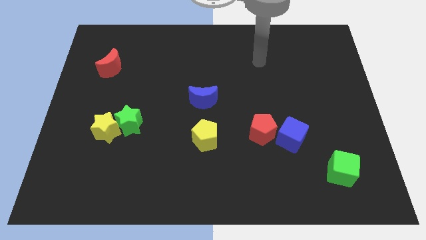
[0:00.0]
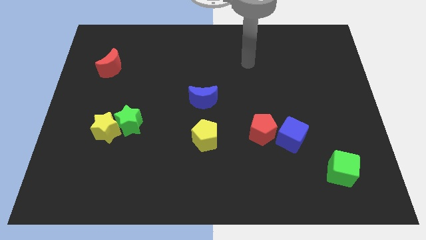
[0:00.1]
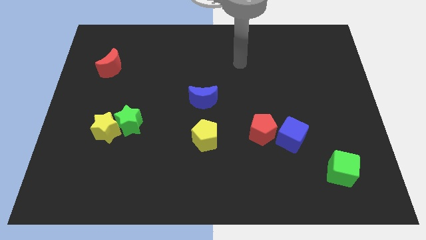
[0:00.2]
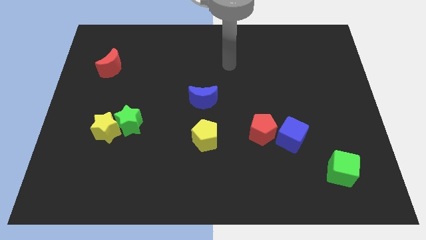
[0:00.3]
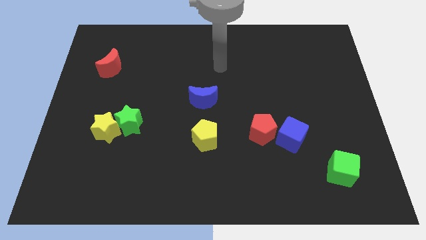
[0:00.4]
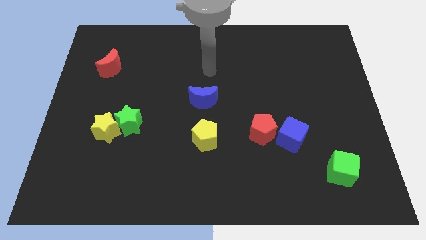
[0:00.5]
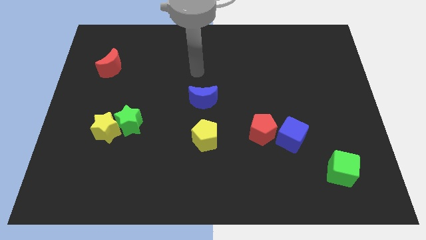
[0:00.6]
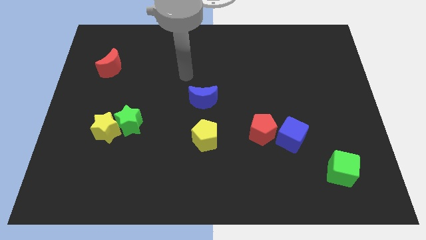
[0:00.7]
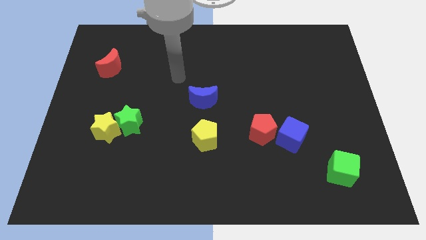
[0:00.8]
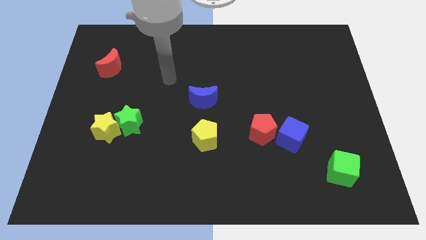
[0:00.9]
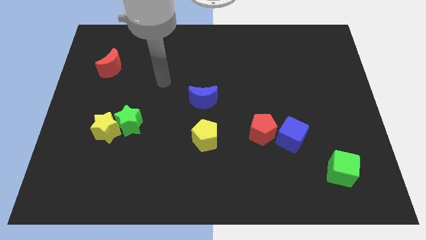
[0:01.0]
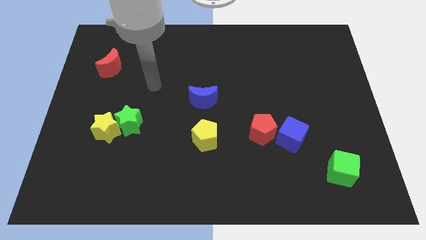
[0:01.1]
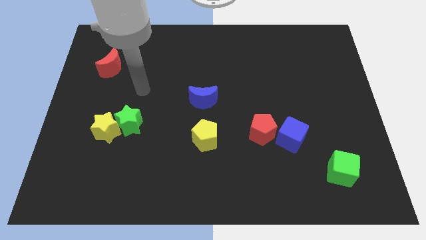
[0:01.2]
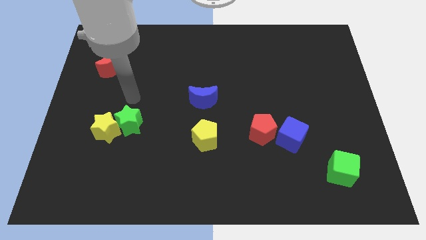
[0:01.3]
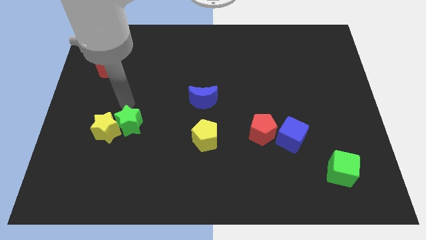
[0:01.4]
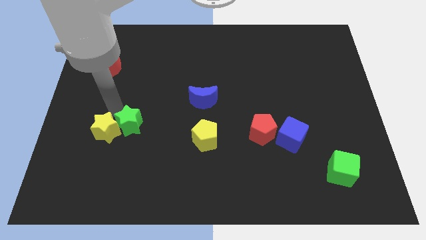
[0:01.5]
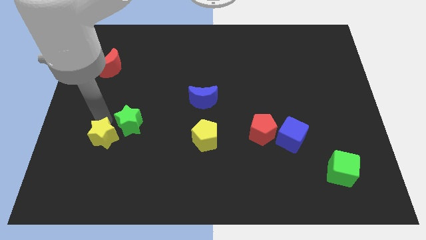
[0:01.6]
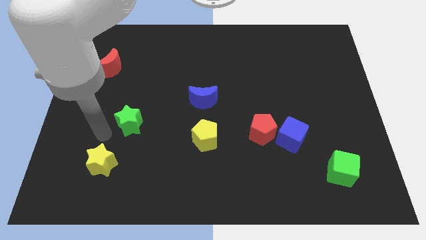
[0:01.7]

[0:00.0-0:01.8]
pull the green star apart from the yellow star

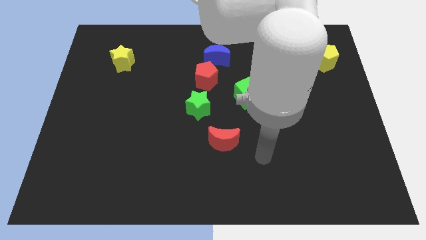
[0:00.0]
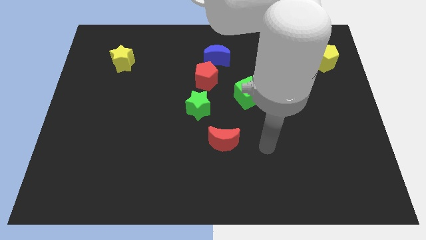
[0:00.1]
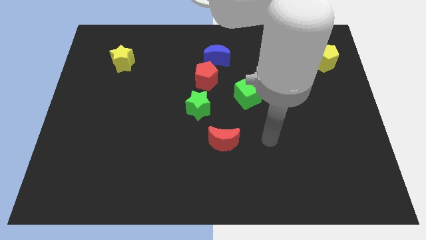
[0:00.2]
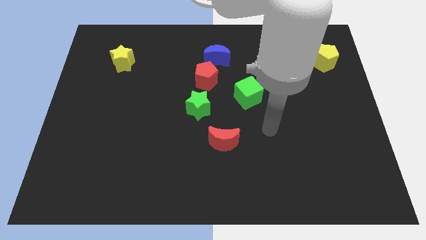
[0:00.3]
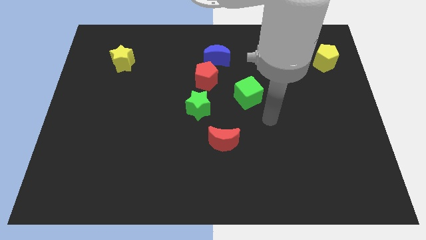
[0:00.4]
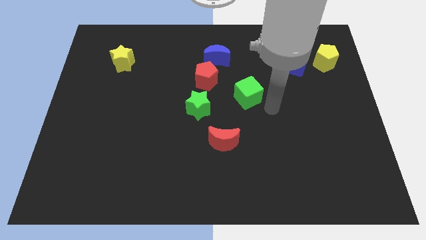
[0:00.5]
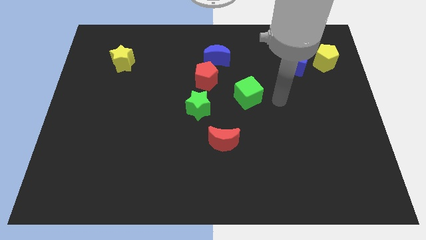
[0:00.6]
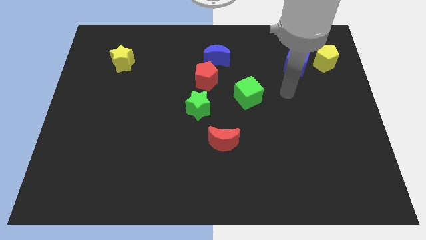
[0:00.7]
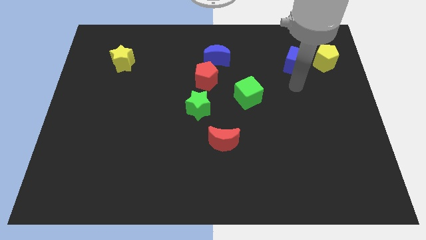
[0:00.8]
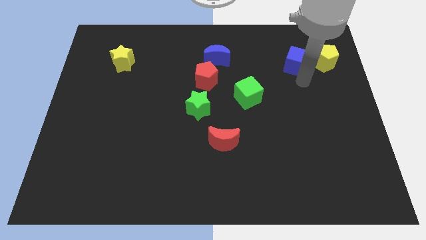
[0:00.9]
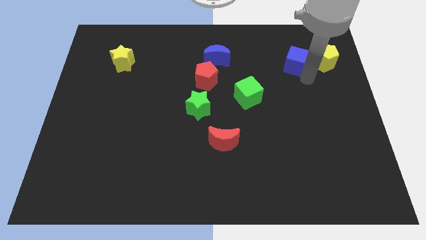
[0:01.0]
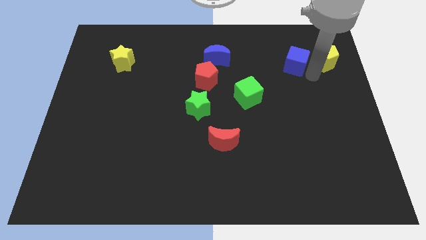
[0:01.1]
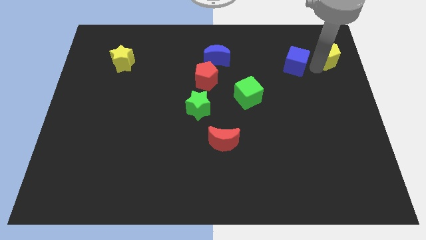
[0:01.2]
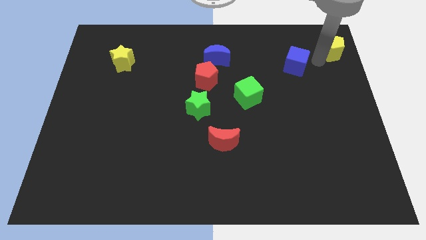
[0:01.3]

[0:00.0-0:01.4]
move the blue cube away from the yellow pentagon

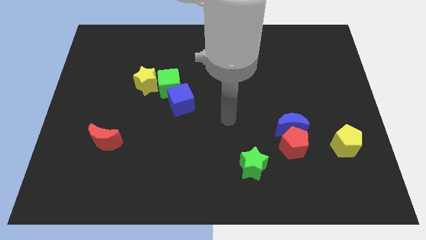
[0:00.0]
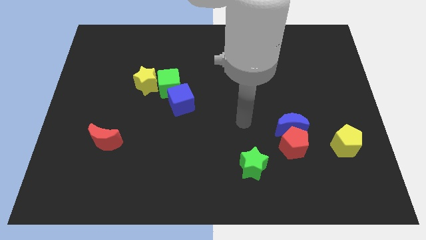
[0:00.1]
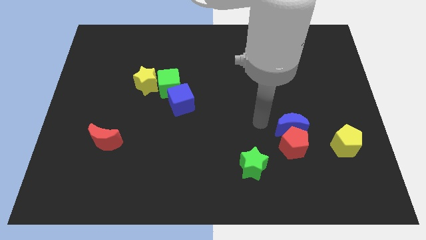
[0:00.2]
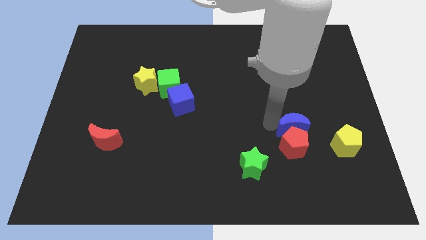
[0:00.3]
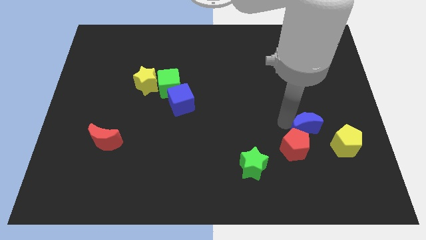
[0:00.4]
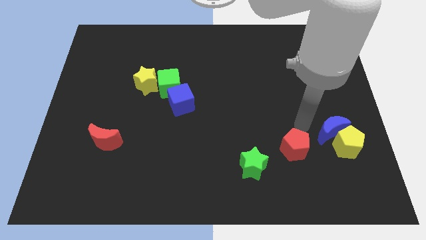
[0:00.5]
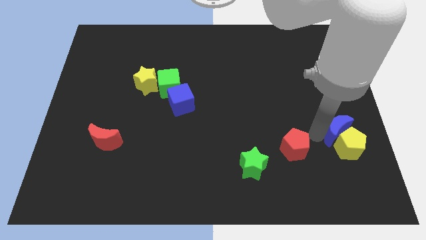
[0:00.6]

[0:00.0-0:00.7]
separate the red pentagon from the blue moon

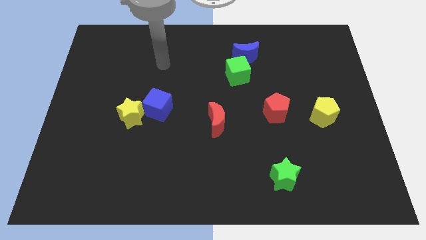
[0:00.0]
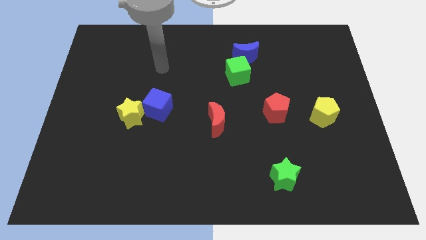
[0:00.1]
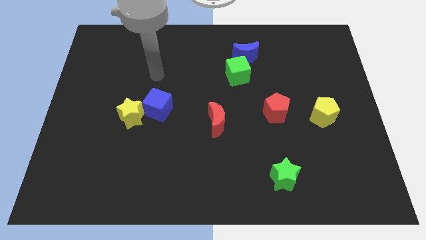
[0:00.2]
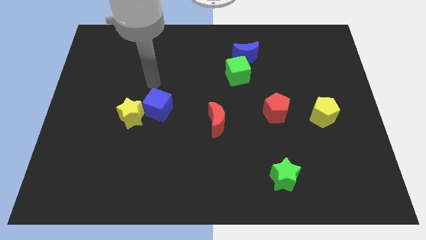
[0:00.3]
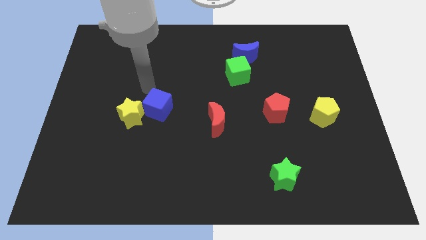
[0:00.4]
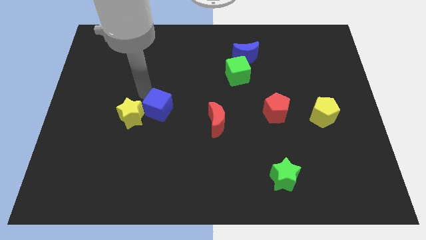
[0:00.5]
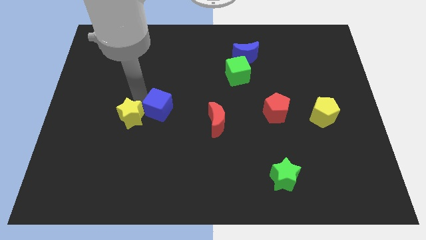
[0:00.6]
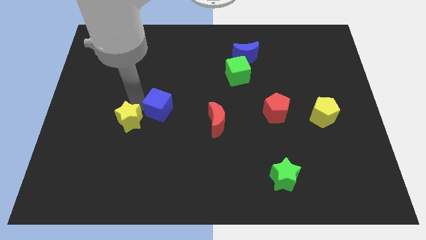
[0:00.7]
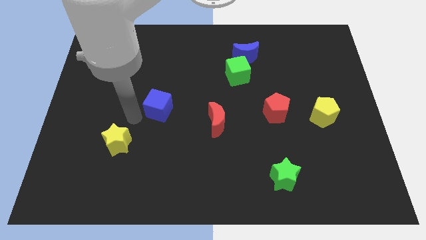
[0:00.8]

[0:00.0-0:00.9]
pull the blue cube apart from the yellow star

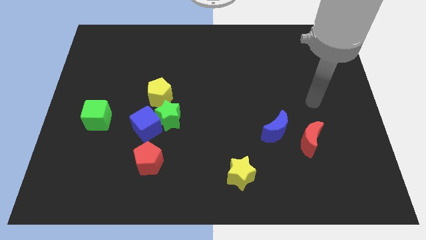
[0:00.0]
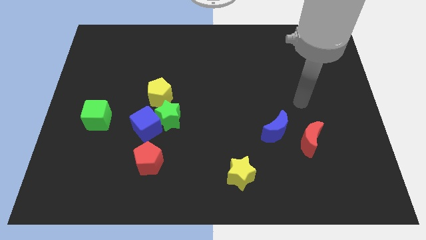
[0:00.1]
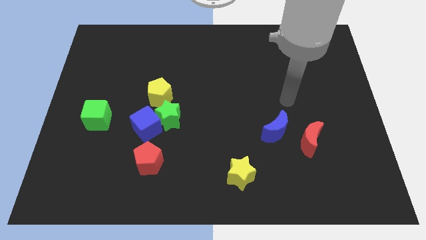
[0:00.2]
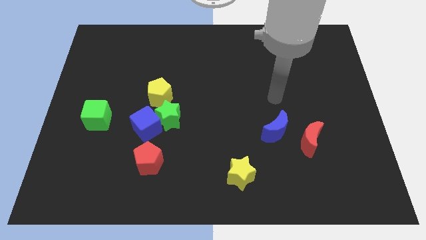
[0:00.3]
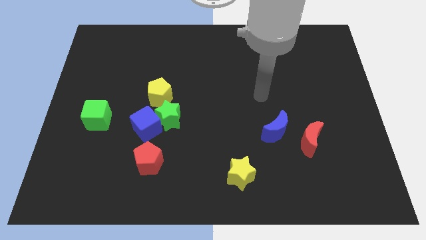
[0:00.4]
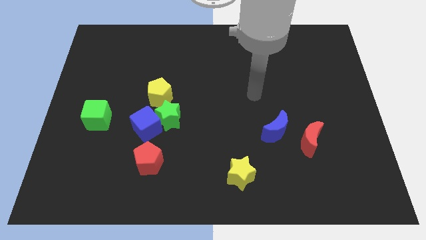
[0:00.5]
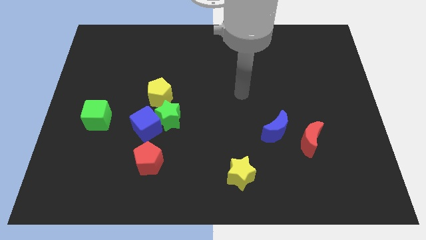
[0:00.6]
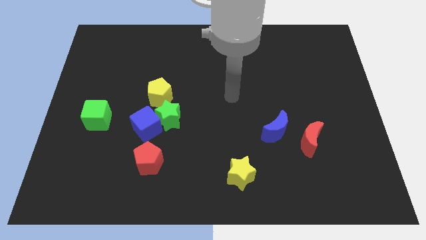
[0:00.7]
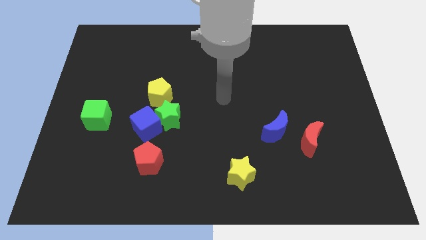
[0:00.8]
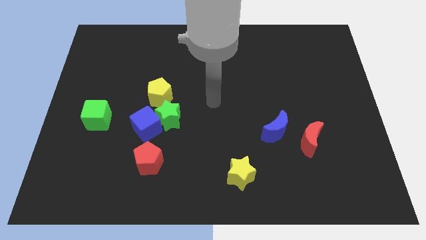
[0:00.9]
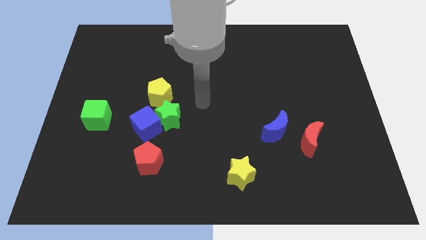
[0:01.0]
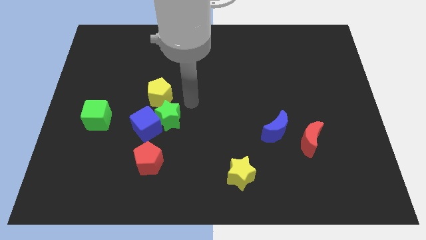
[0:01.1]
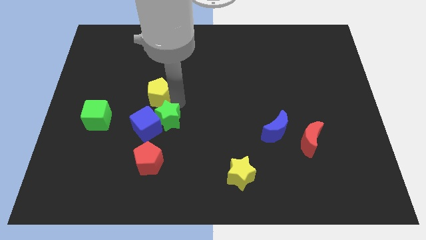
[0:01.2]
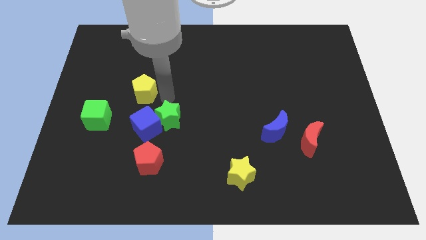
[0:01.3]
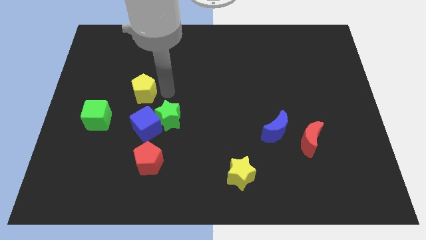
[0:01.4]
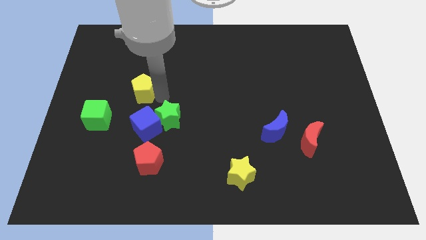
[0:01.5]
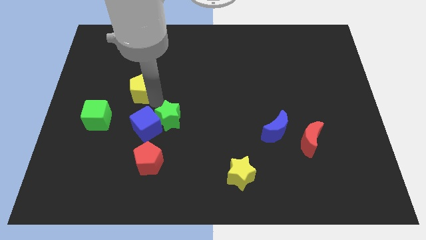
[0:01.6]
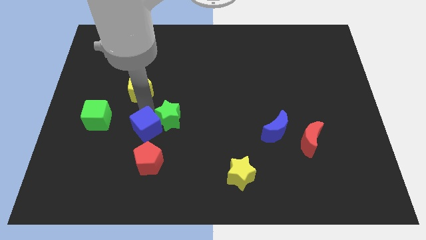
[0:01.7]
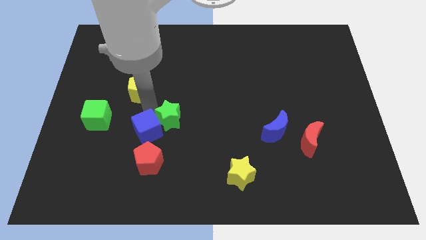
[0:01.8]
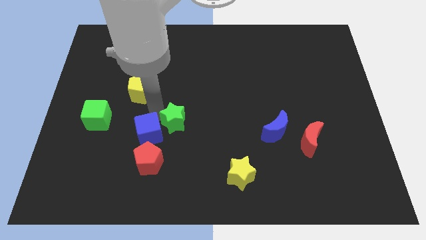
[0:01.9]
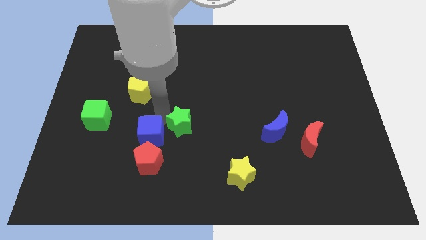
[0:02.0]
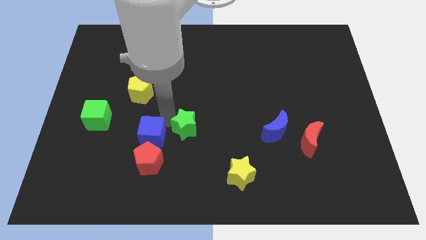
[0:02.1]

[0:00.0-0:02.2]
separate the green star from the blue cube and yellow pentagon

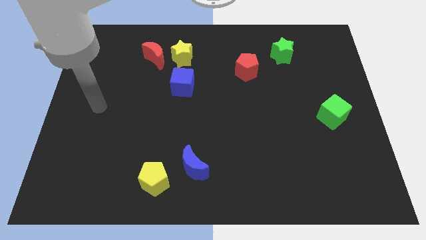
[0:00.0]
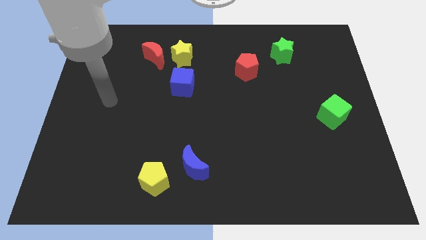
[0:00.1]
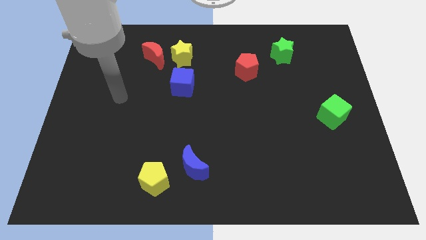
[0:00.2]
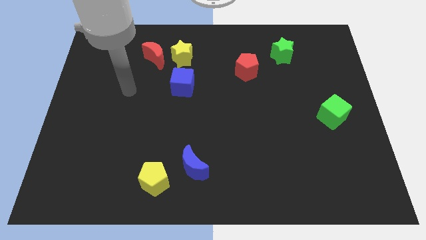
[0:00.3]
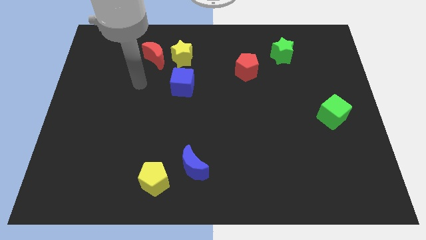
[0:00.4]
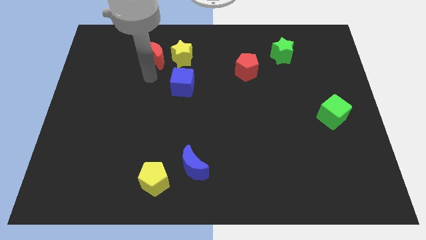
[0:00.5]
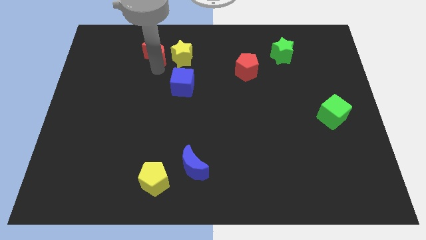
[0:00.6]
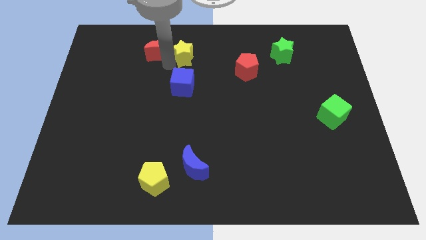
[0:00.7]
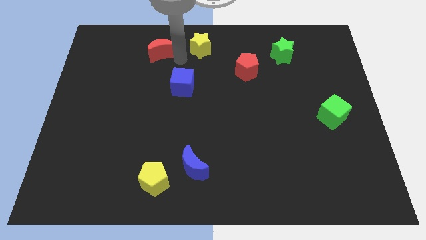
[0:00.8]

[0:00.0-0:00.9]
separate the red moon from the yellow star

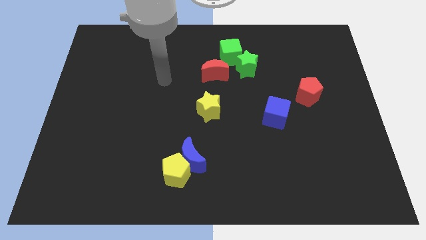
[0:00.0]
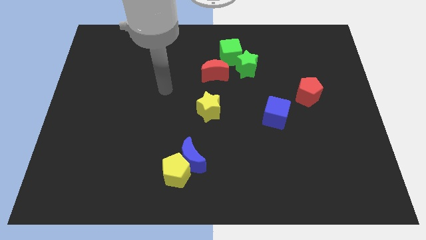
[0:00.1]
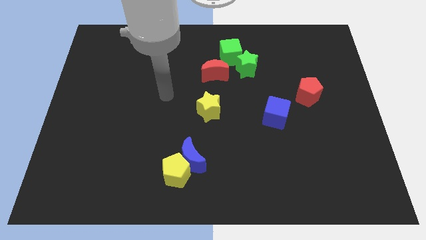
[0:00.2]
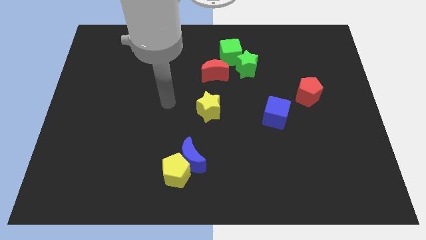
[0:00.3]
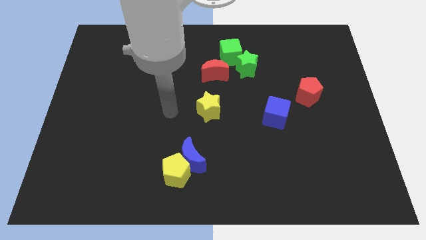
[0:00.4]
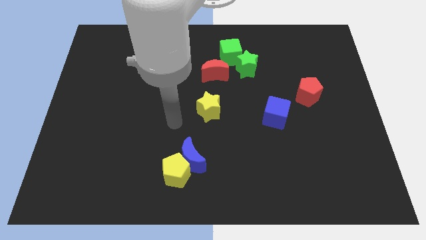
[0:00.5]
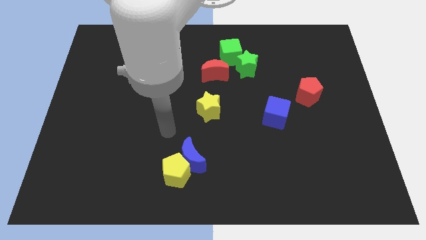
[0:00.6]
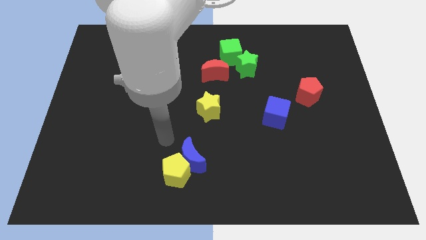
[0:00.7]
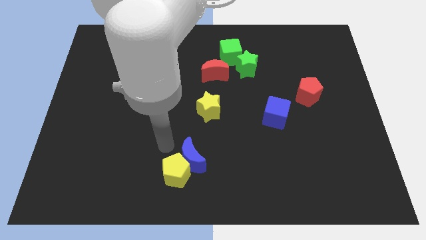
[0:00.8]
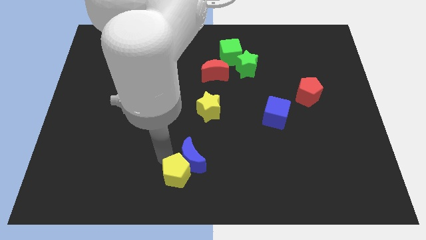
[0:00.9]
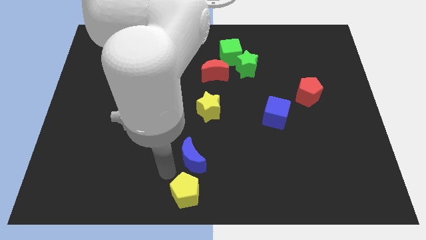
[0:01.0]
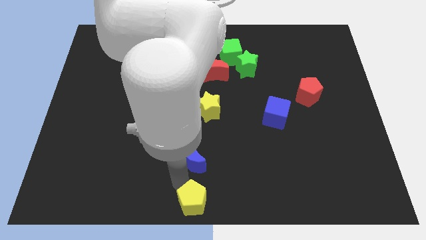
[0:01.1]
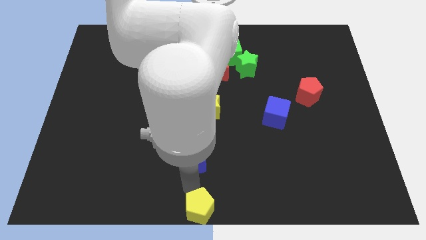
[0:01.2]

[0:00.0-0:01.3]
separate the blue moon from the yellow pentagon

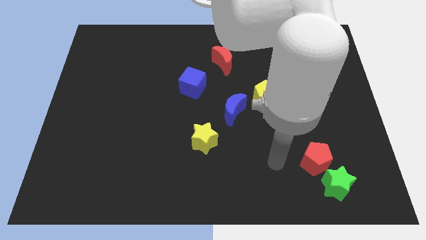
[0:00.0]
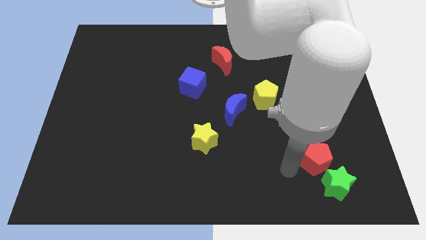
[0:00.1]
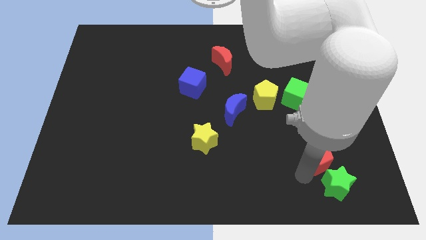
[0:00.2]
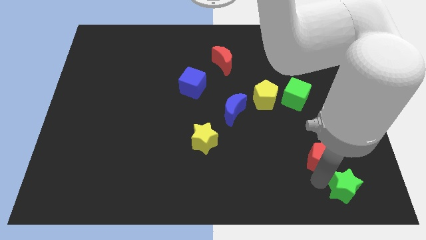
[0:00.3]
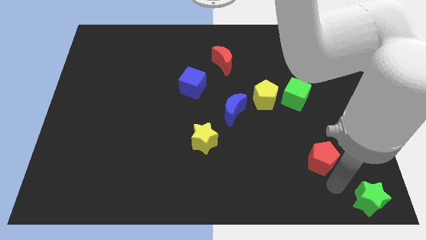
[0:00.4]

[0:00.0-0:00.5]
pull the red pentagon apart from the green star
